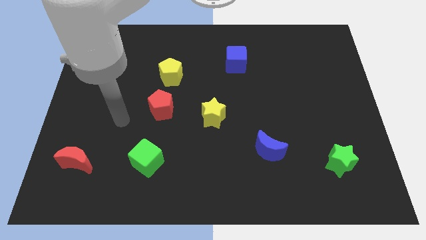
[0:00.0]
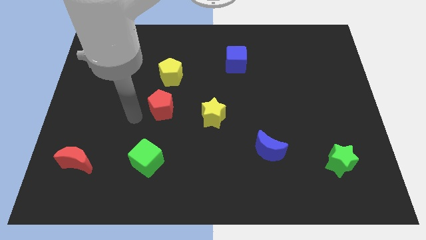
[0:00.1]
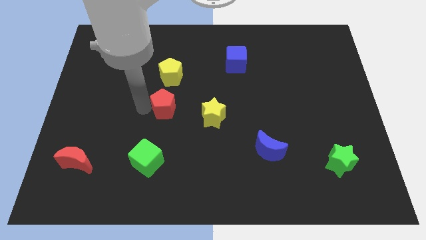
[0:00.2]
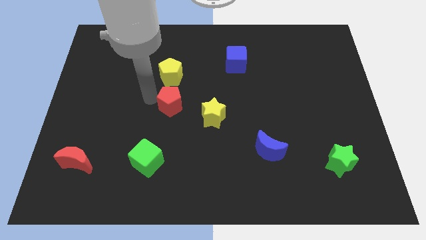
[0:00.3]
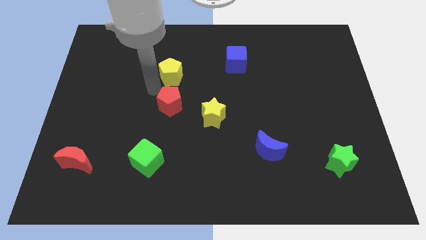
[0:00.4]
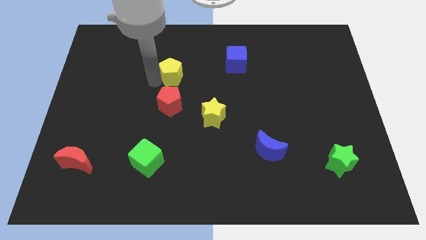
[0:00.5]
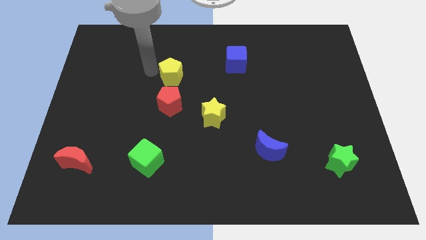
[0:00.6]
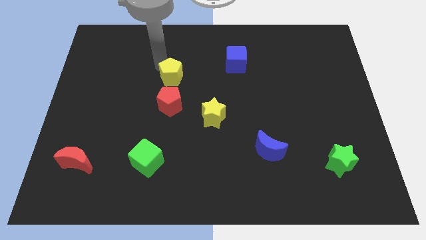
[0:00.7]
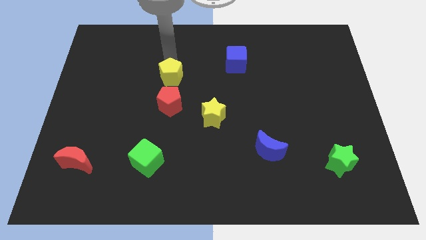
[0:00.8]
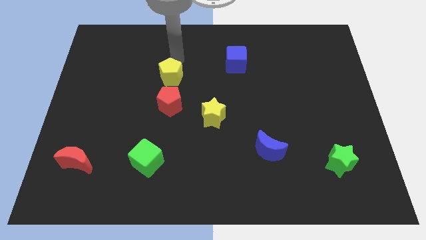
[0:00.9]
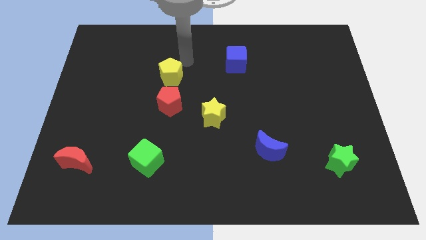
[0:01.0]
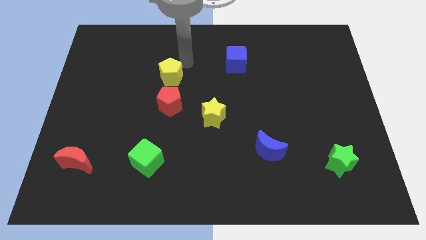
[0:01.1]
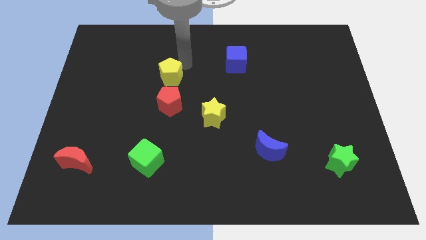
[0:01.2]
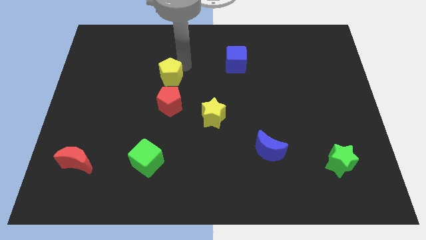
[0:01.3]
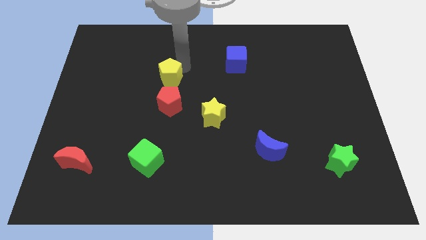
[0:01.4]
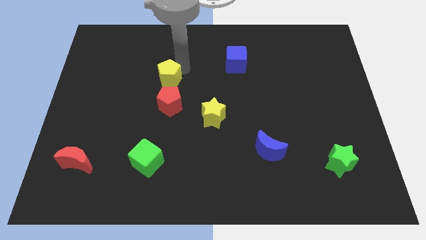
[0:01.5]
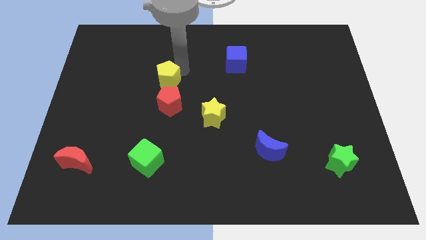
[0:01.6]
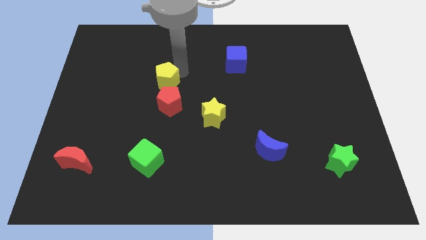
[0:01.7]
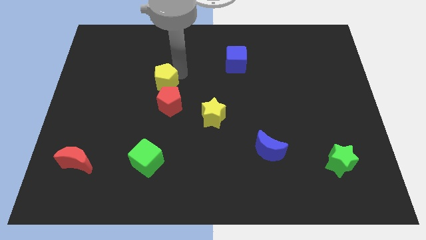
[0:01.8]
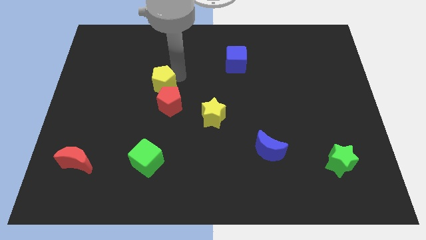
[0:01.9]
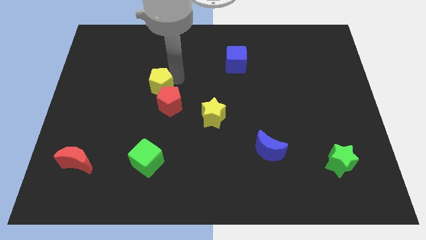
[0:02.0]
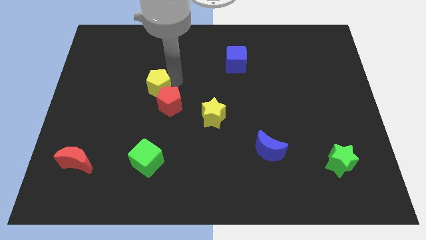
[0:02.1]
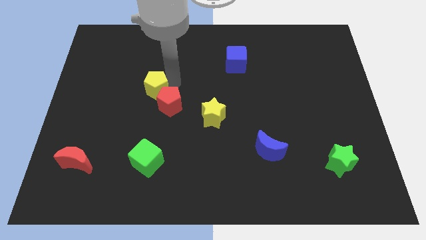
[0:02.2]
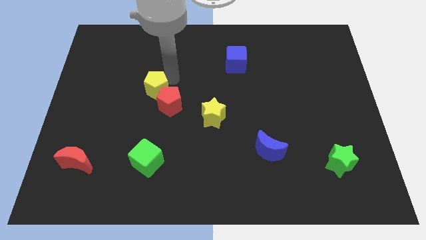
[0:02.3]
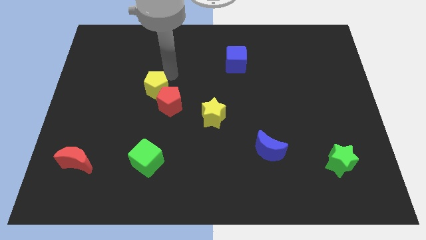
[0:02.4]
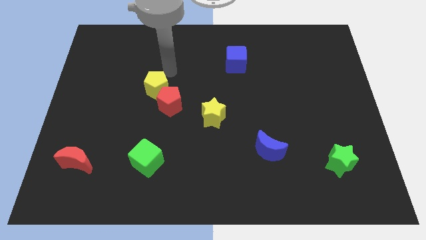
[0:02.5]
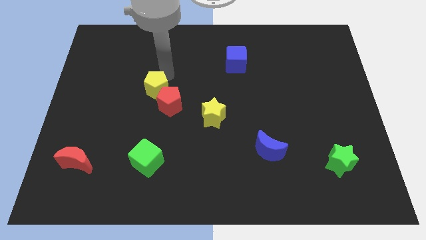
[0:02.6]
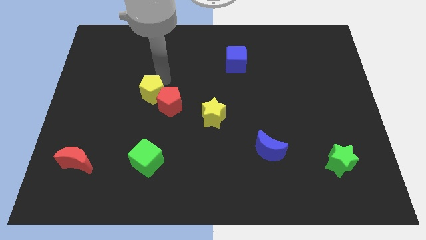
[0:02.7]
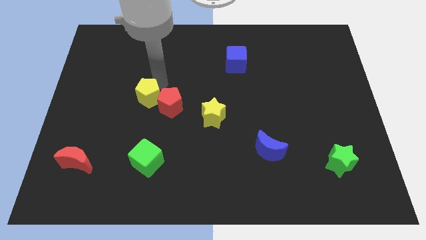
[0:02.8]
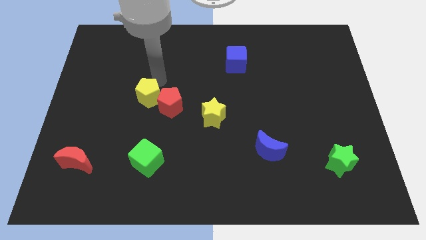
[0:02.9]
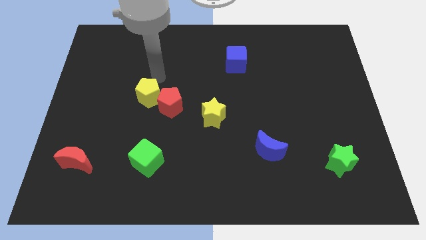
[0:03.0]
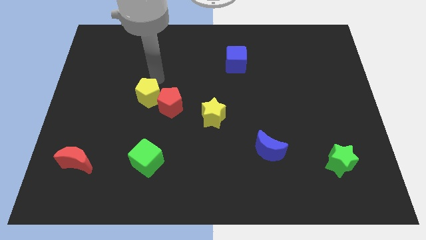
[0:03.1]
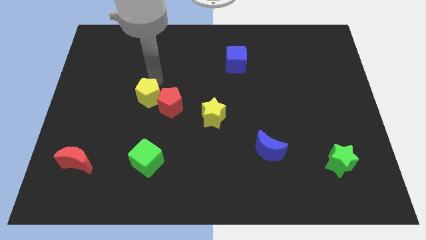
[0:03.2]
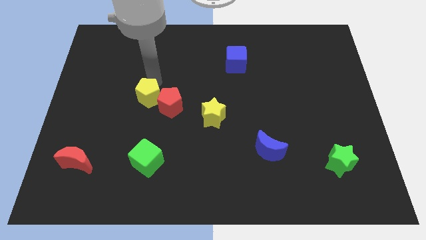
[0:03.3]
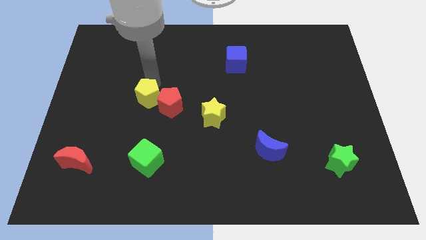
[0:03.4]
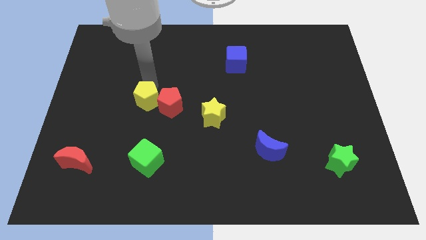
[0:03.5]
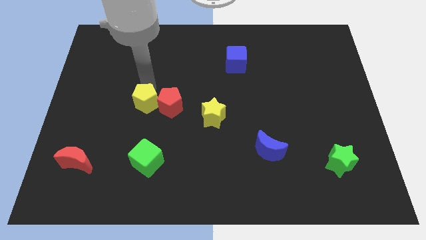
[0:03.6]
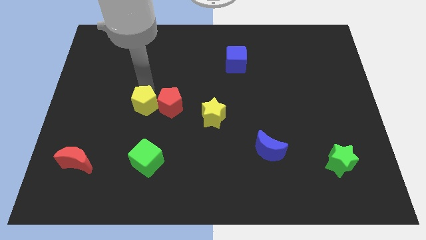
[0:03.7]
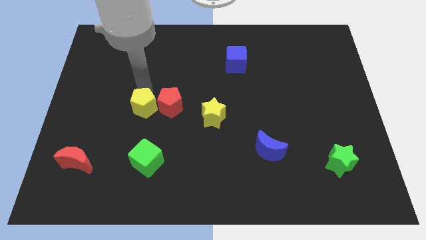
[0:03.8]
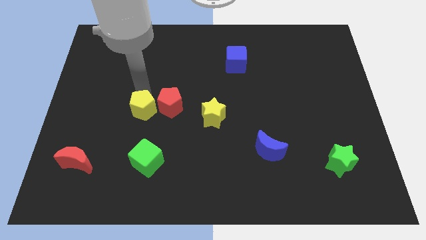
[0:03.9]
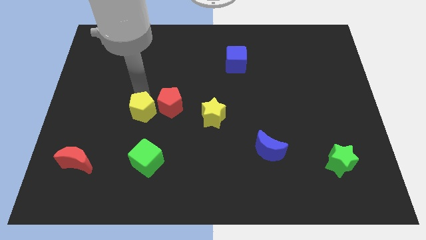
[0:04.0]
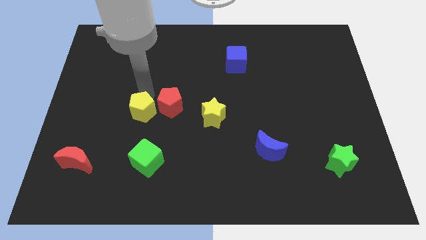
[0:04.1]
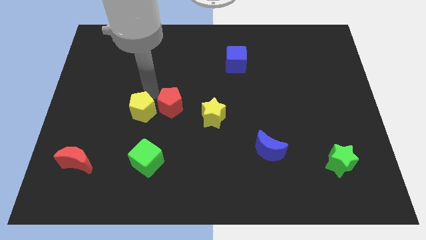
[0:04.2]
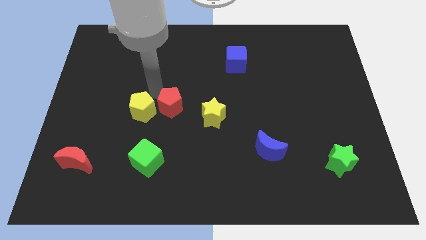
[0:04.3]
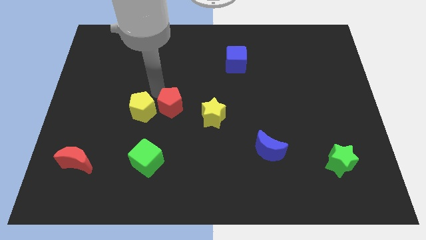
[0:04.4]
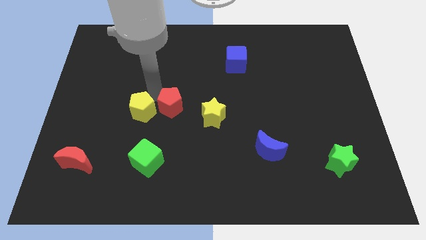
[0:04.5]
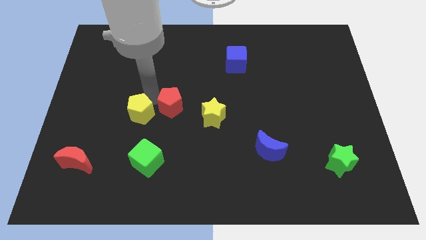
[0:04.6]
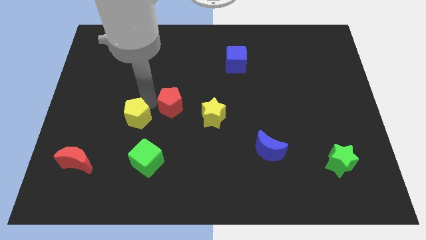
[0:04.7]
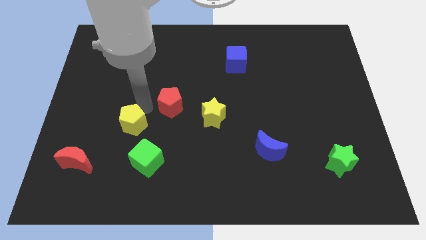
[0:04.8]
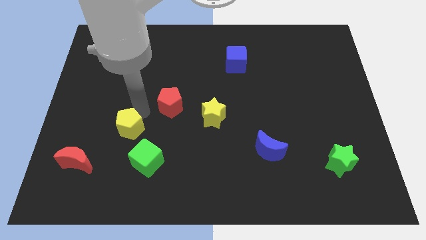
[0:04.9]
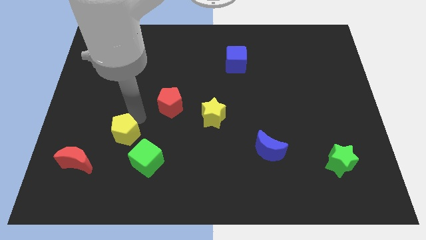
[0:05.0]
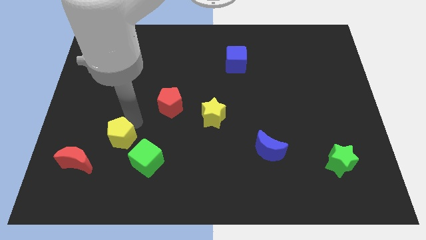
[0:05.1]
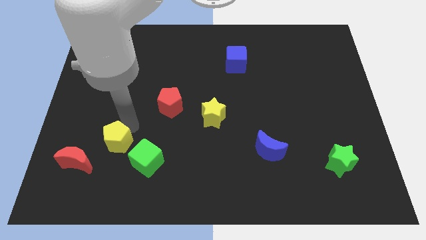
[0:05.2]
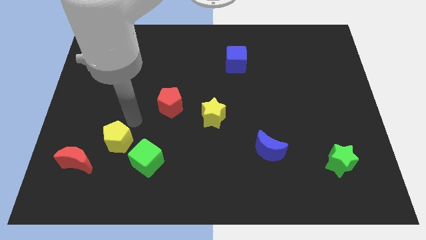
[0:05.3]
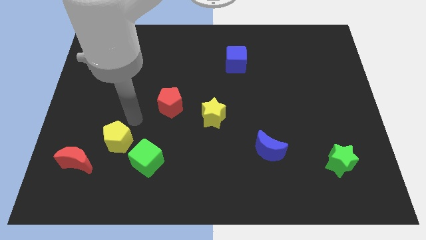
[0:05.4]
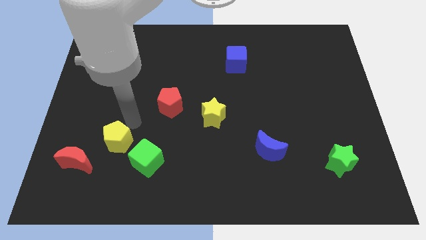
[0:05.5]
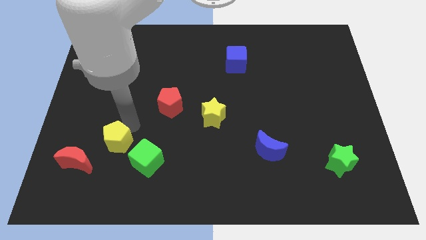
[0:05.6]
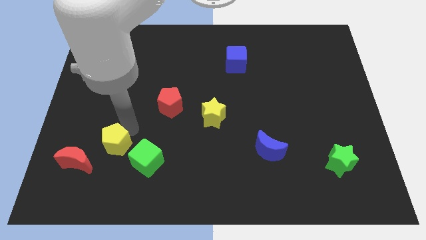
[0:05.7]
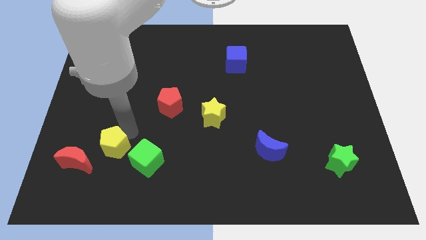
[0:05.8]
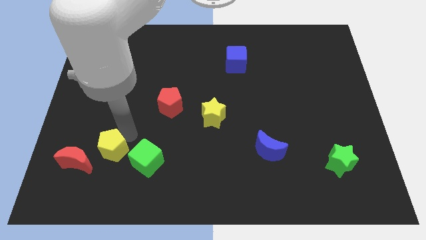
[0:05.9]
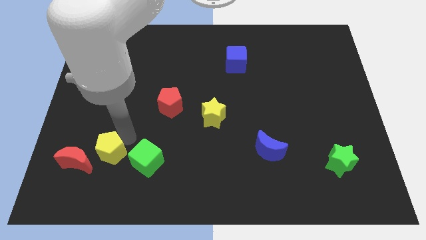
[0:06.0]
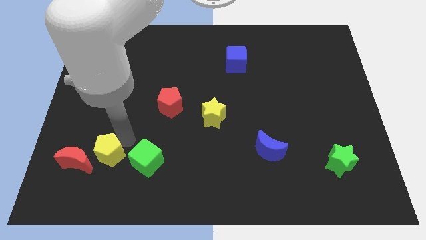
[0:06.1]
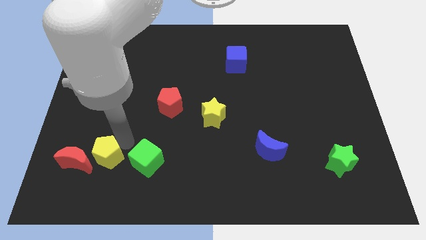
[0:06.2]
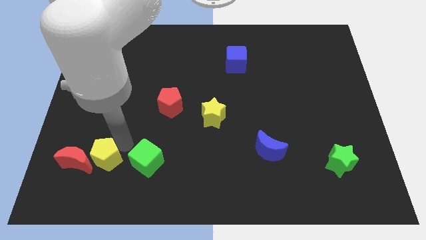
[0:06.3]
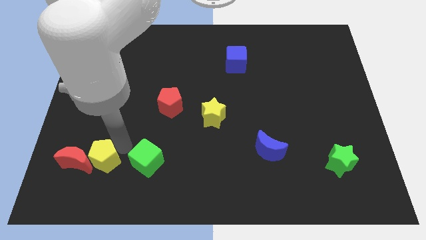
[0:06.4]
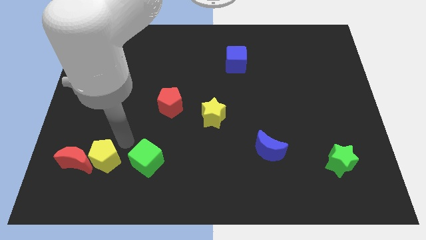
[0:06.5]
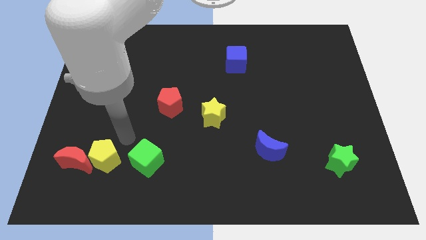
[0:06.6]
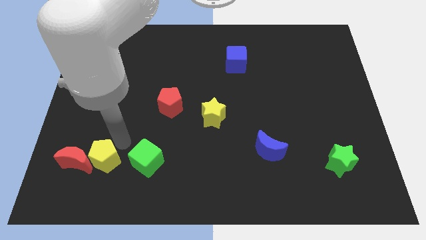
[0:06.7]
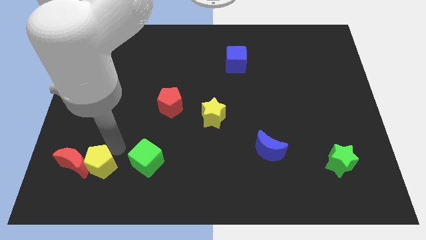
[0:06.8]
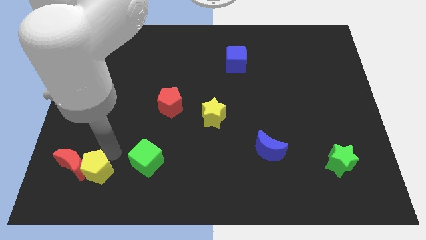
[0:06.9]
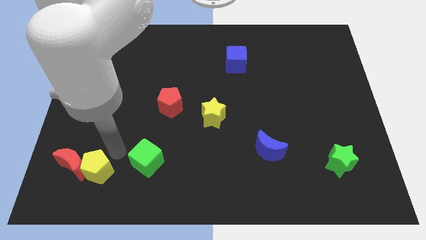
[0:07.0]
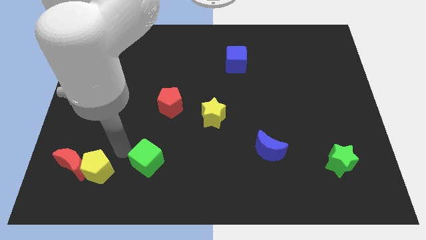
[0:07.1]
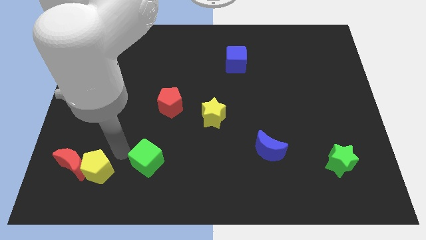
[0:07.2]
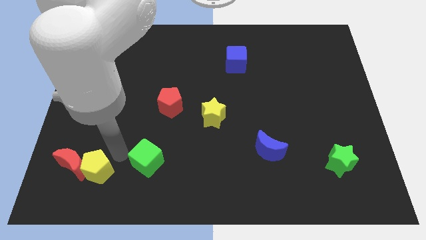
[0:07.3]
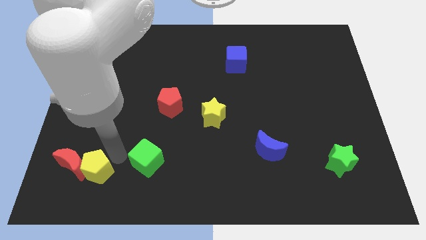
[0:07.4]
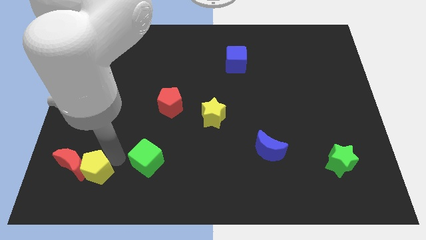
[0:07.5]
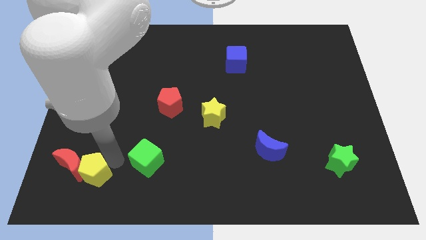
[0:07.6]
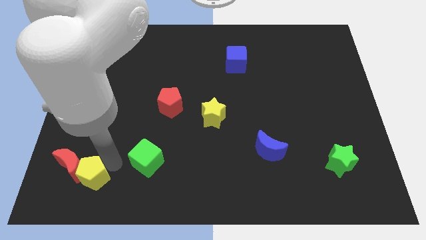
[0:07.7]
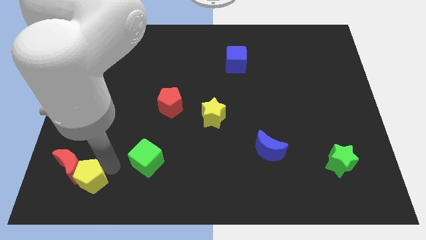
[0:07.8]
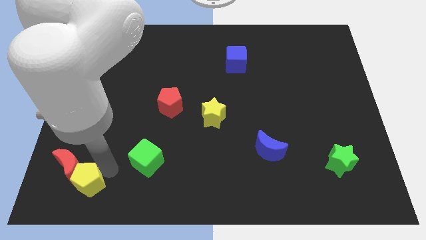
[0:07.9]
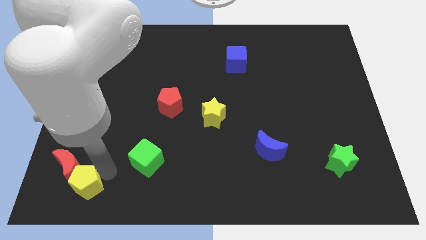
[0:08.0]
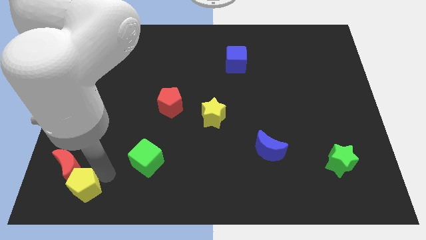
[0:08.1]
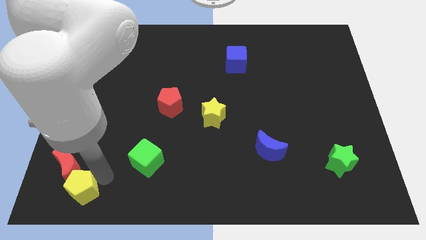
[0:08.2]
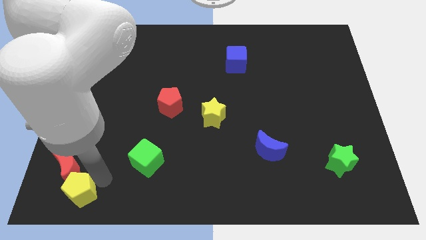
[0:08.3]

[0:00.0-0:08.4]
push the yellow pentagon to the bottom left
